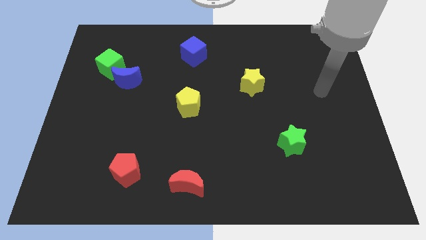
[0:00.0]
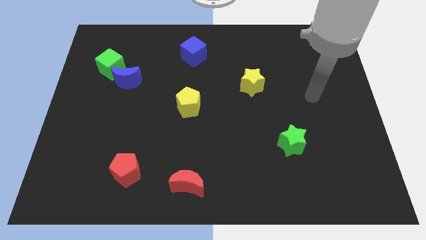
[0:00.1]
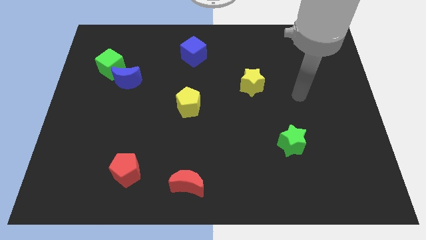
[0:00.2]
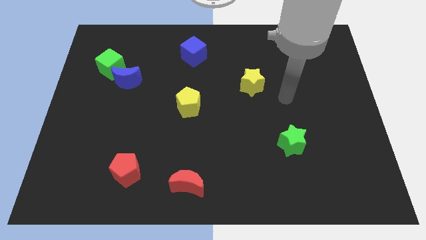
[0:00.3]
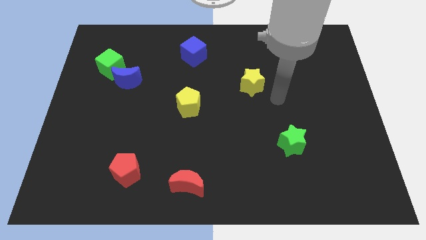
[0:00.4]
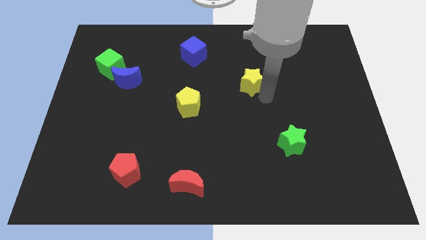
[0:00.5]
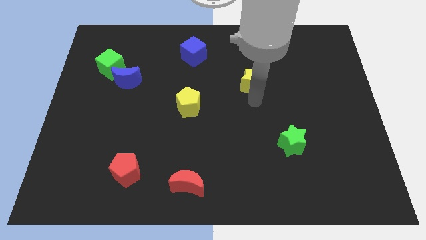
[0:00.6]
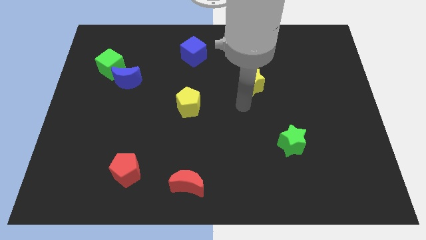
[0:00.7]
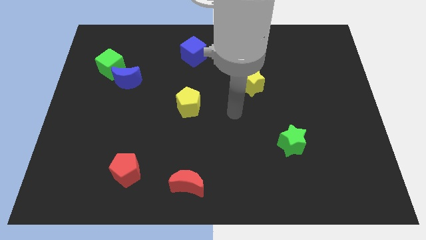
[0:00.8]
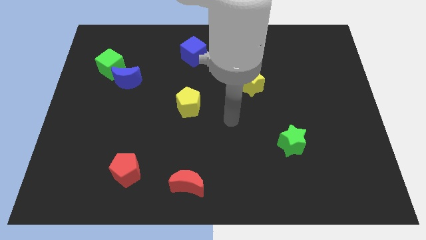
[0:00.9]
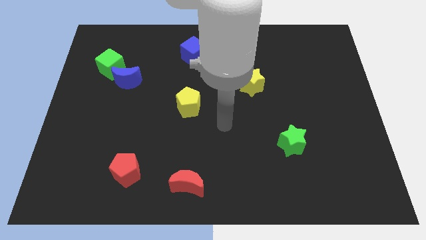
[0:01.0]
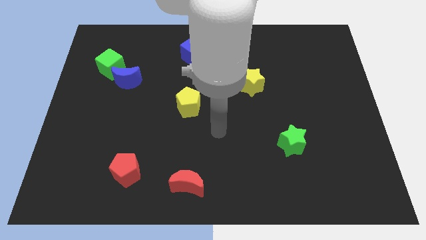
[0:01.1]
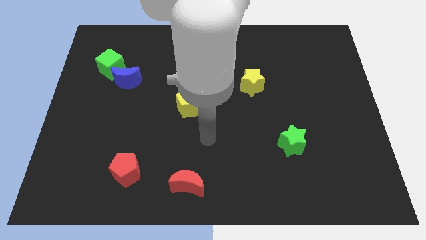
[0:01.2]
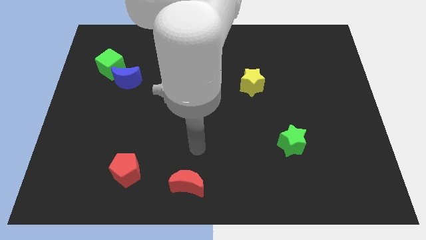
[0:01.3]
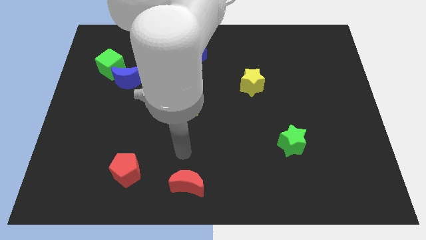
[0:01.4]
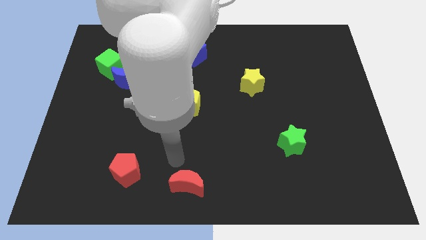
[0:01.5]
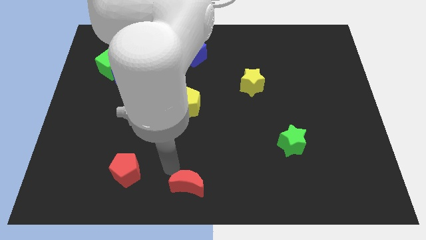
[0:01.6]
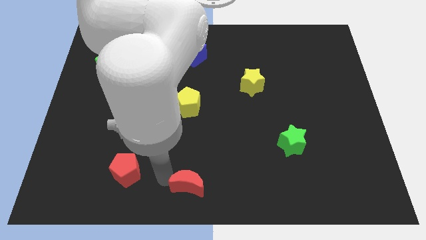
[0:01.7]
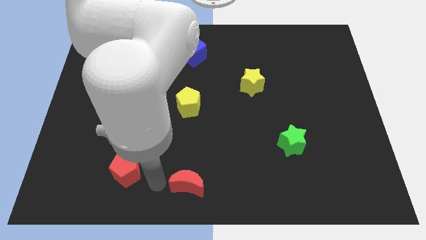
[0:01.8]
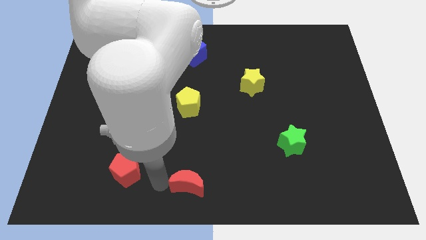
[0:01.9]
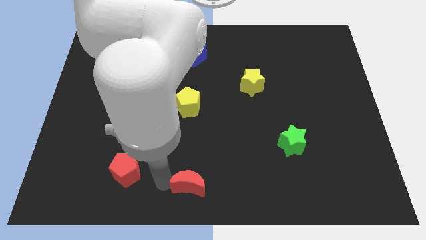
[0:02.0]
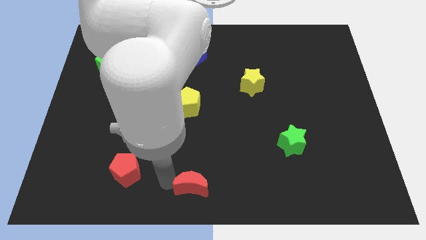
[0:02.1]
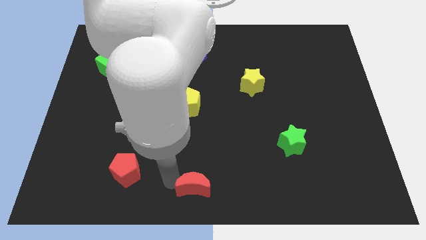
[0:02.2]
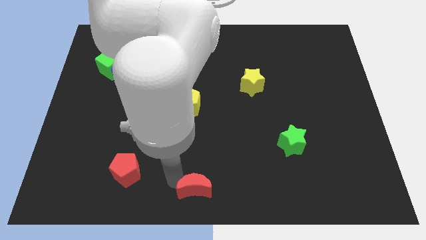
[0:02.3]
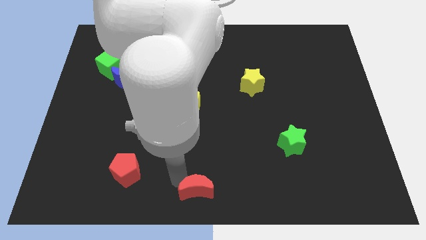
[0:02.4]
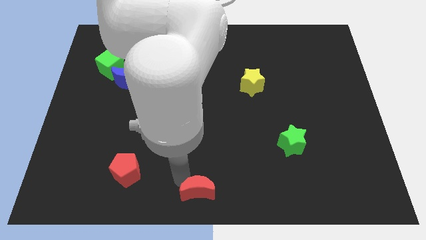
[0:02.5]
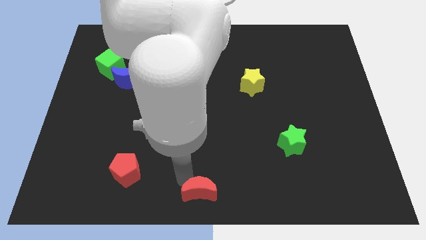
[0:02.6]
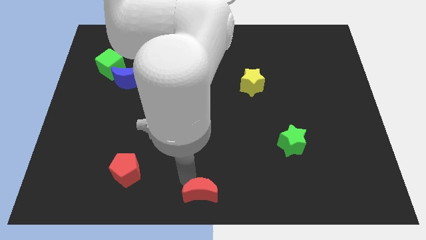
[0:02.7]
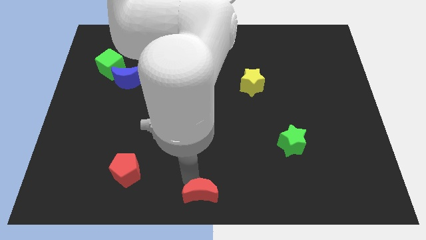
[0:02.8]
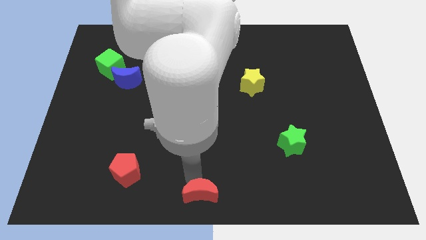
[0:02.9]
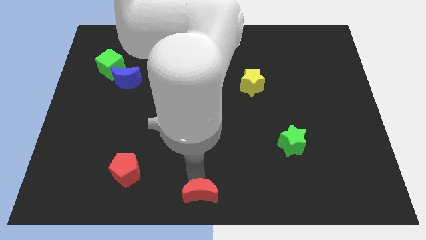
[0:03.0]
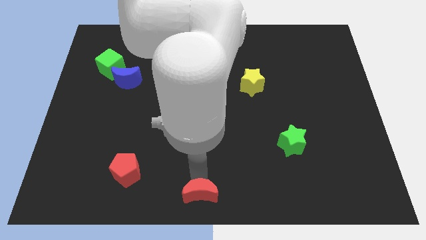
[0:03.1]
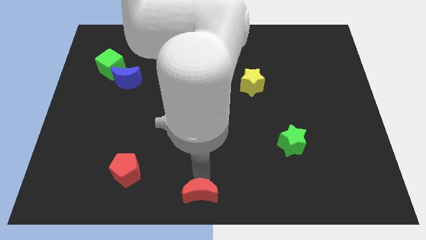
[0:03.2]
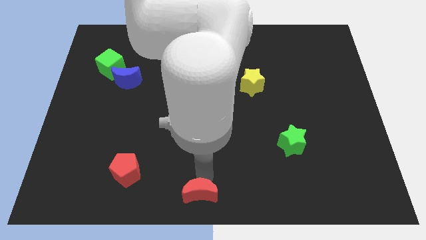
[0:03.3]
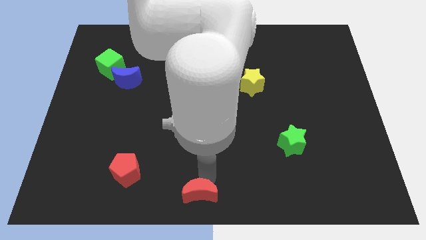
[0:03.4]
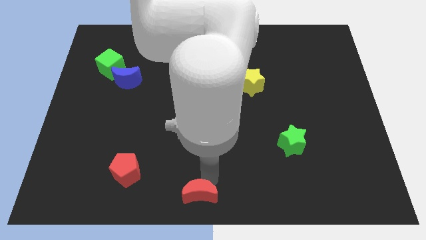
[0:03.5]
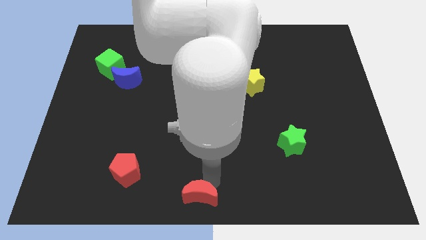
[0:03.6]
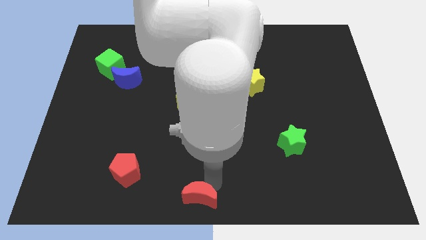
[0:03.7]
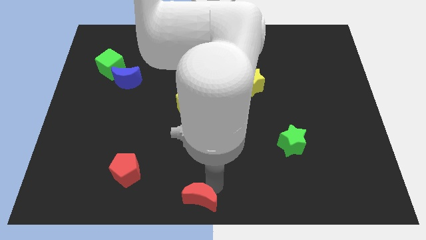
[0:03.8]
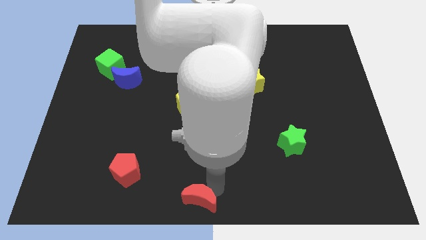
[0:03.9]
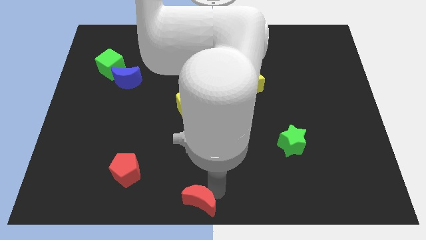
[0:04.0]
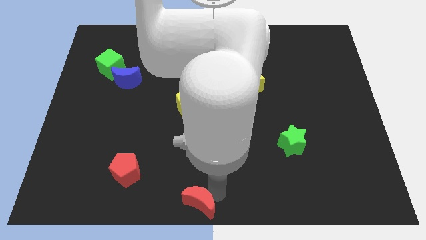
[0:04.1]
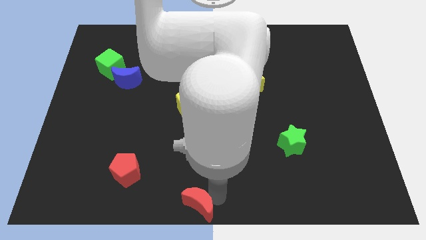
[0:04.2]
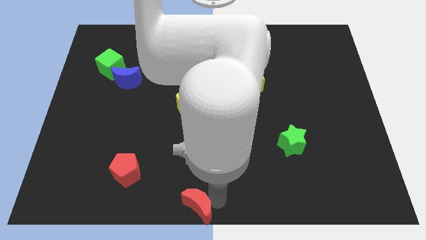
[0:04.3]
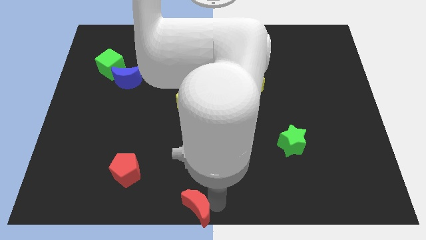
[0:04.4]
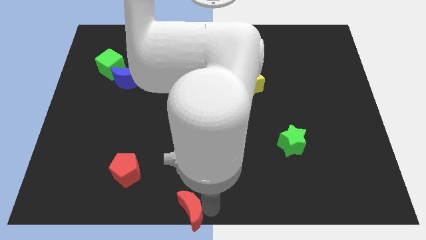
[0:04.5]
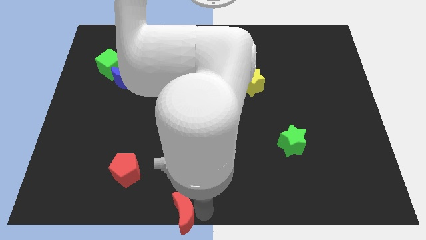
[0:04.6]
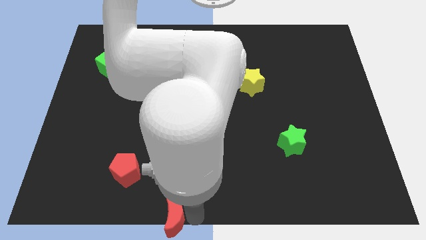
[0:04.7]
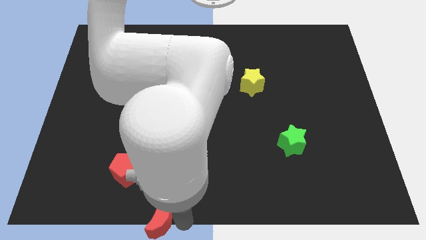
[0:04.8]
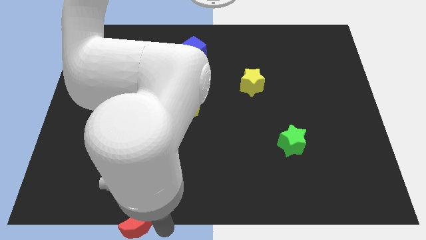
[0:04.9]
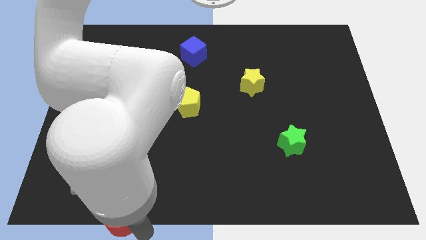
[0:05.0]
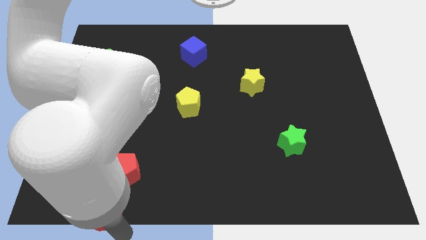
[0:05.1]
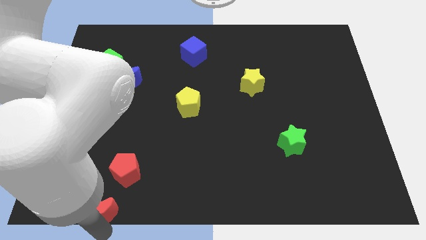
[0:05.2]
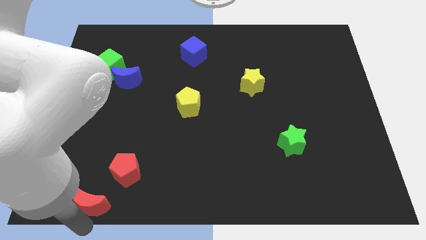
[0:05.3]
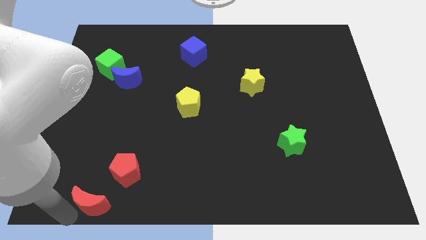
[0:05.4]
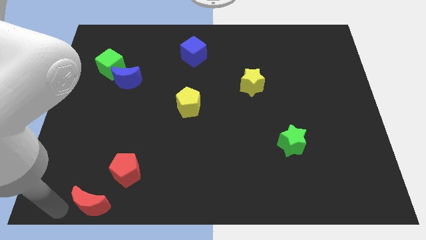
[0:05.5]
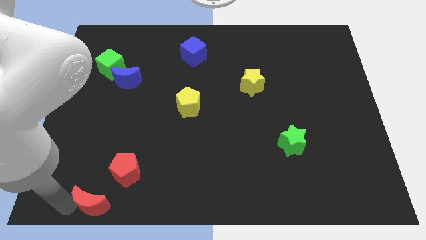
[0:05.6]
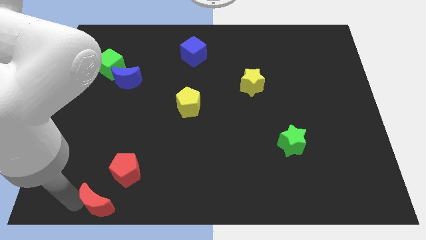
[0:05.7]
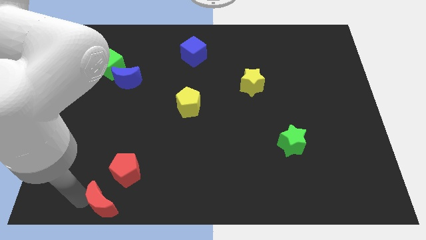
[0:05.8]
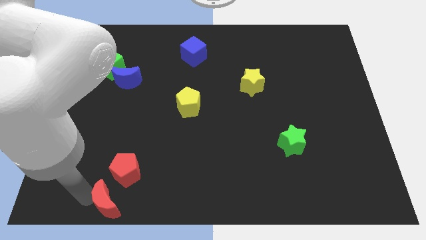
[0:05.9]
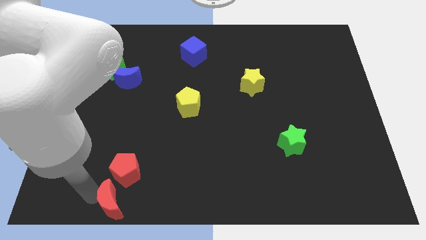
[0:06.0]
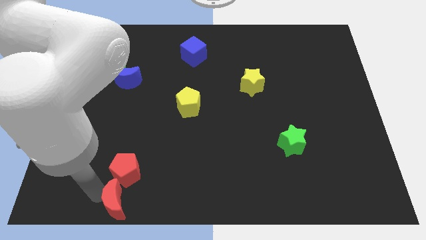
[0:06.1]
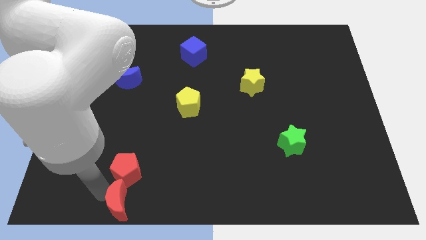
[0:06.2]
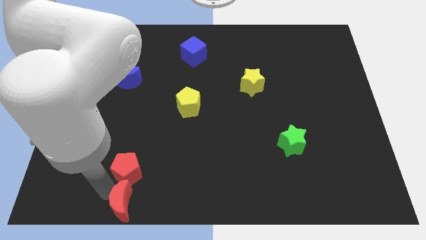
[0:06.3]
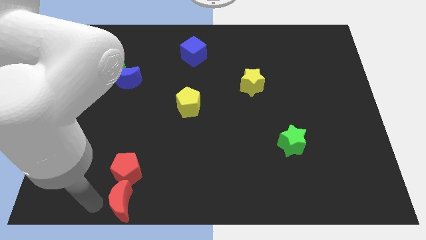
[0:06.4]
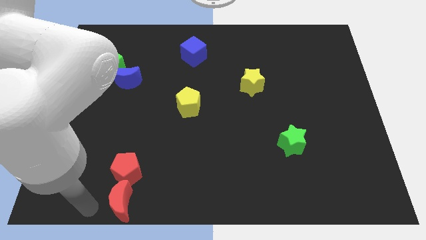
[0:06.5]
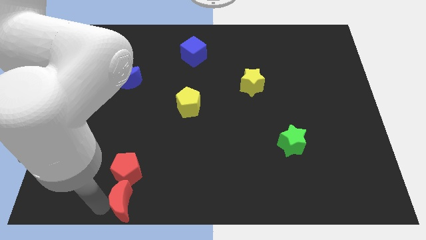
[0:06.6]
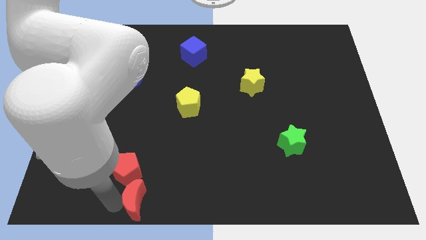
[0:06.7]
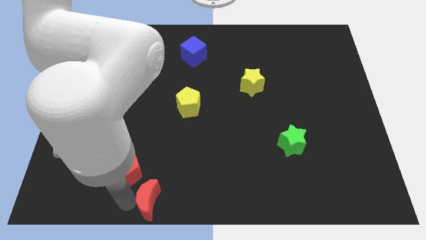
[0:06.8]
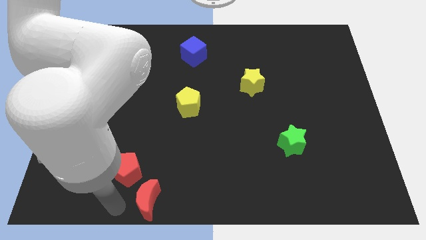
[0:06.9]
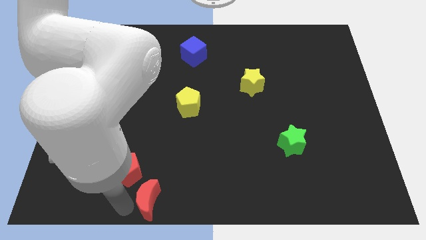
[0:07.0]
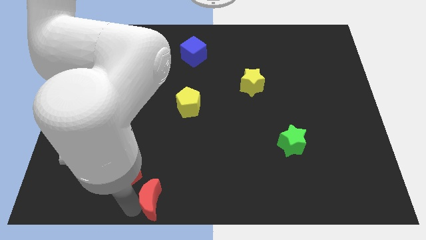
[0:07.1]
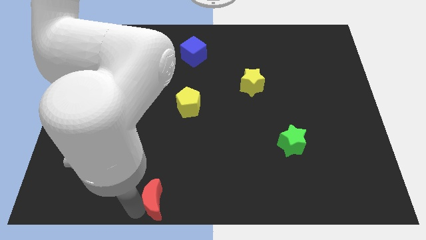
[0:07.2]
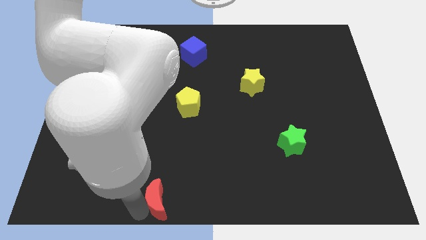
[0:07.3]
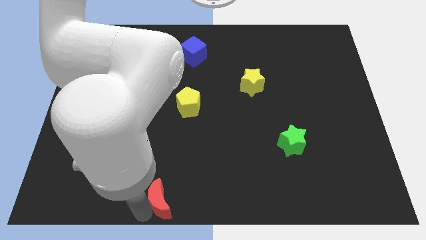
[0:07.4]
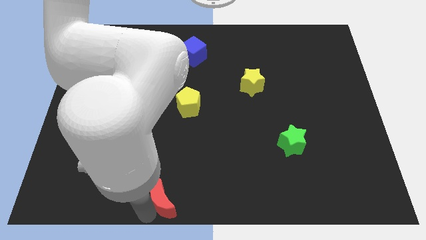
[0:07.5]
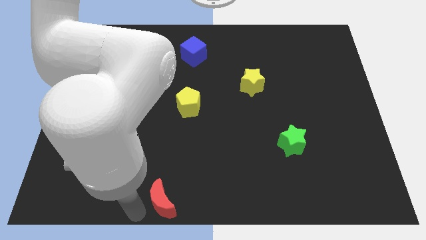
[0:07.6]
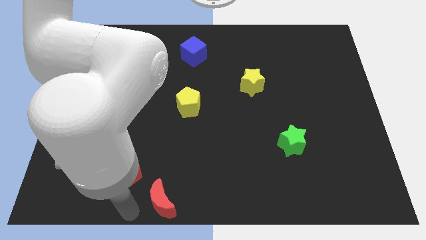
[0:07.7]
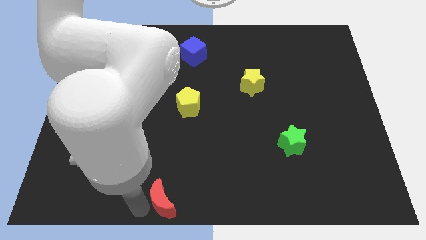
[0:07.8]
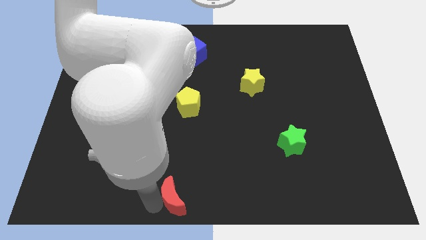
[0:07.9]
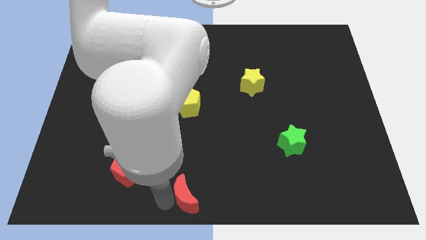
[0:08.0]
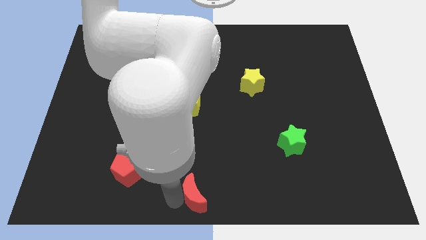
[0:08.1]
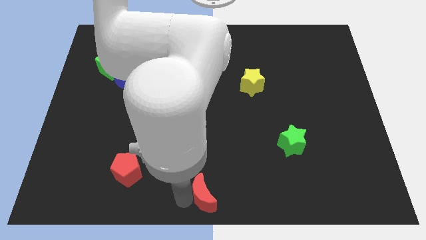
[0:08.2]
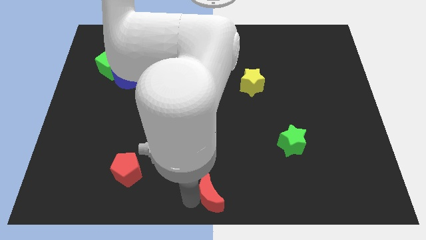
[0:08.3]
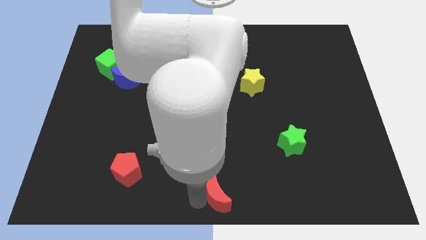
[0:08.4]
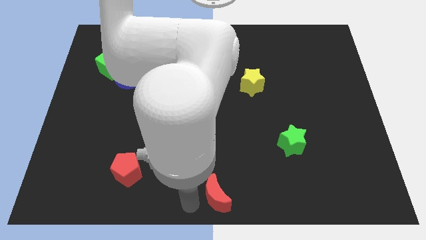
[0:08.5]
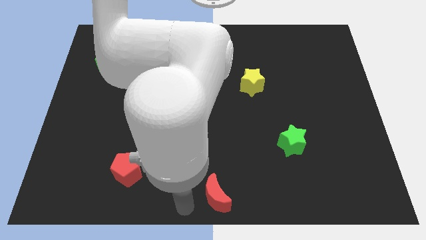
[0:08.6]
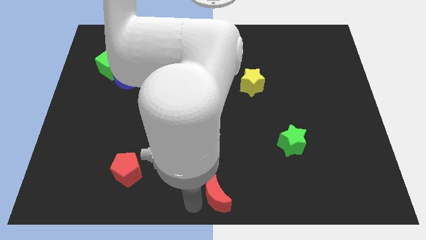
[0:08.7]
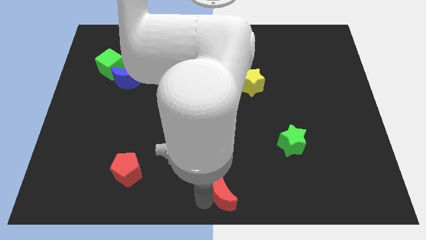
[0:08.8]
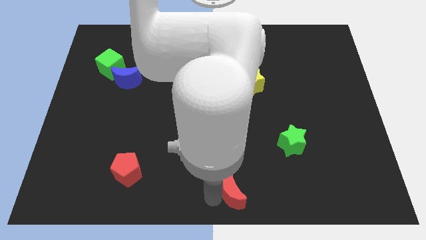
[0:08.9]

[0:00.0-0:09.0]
move the red moon a bit right
